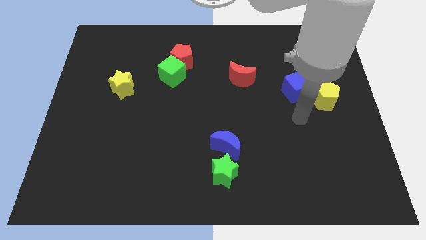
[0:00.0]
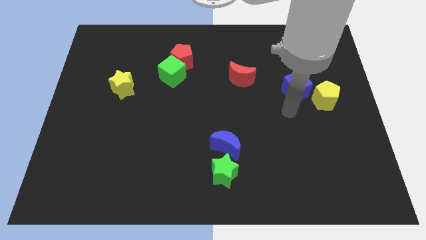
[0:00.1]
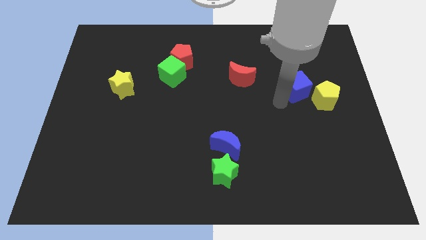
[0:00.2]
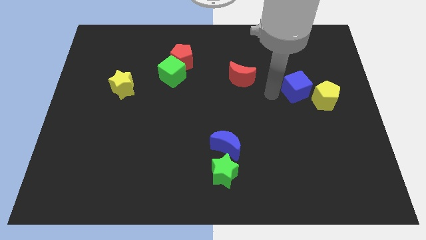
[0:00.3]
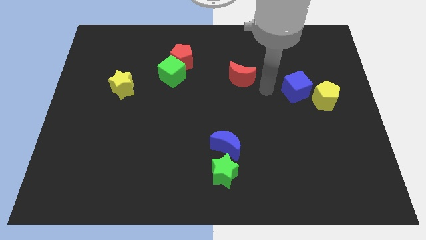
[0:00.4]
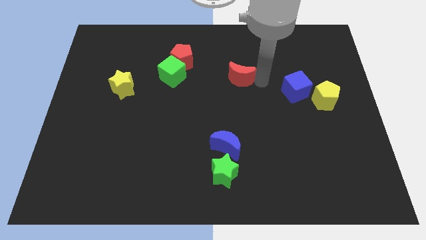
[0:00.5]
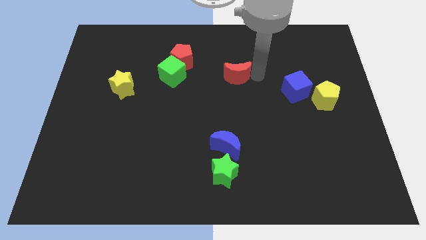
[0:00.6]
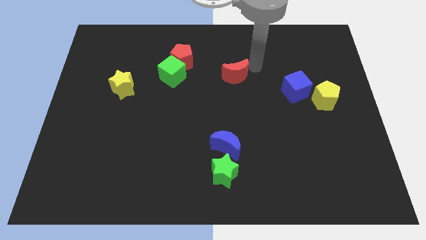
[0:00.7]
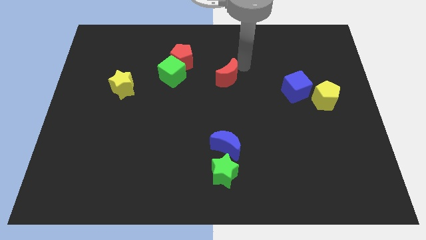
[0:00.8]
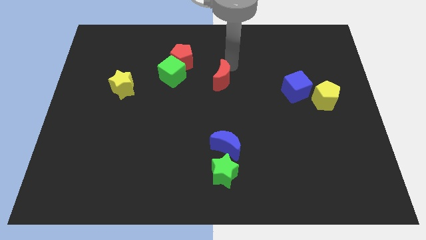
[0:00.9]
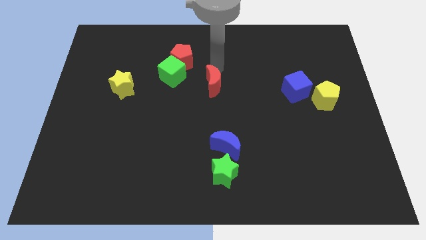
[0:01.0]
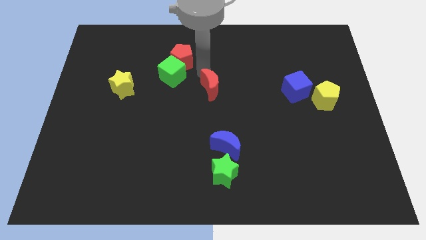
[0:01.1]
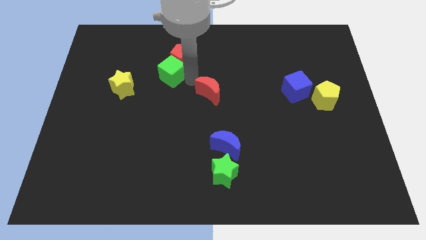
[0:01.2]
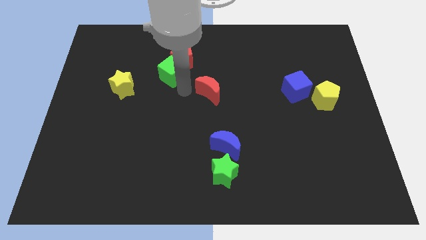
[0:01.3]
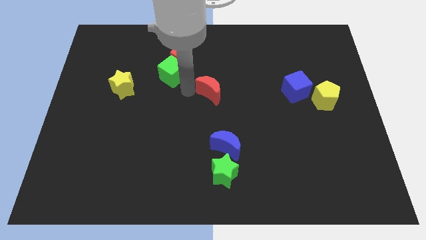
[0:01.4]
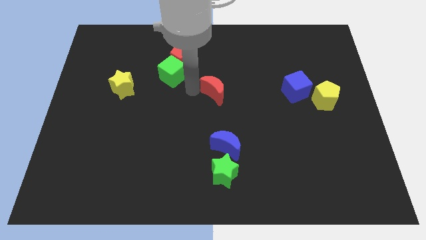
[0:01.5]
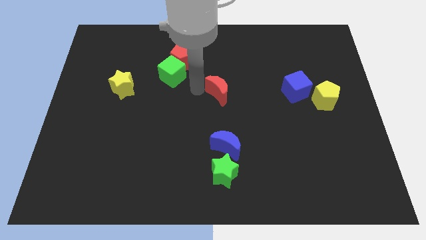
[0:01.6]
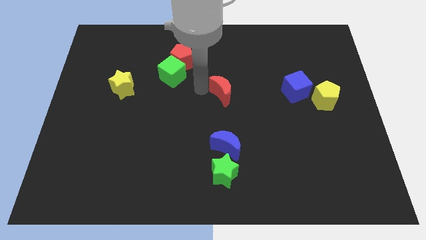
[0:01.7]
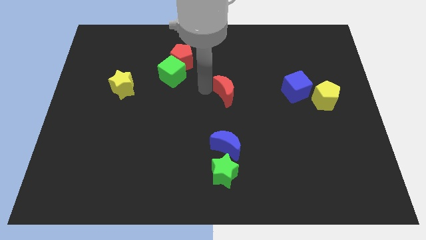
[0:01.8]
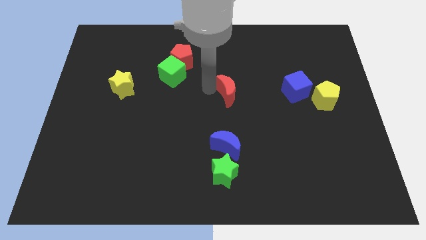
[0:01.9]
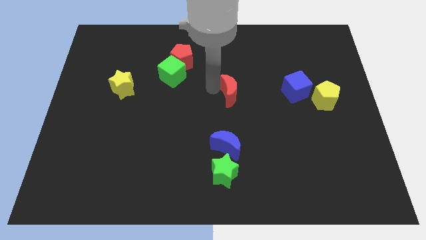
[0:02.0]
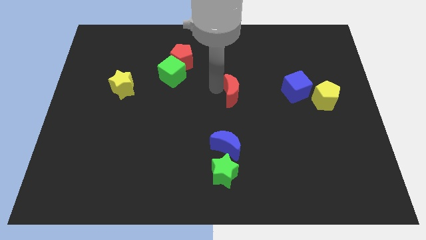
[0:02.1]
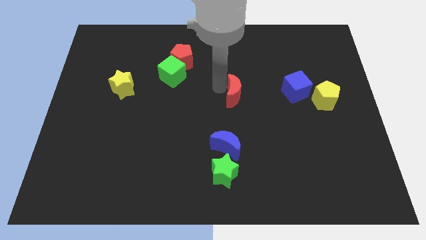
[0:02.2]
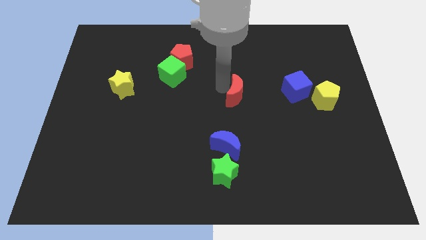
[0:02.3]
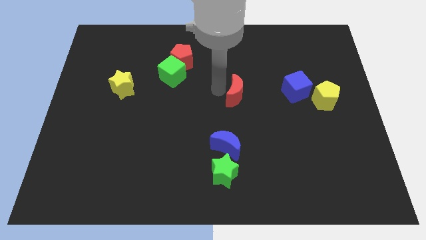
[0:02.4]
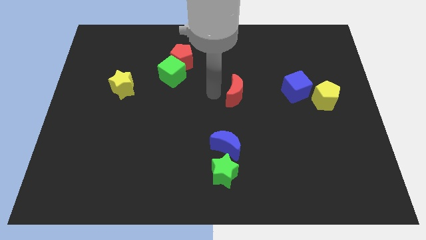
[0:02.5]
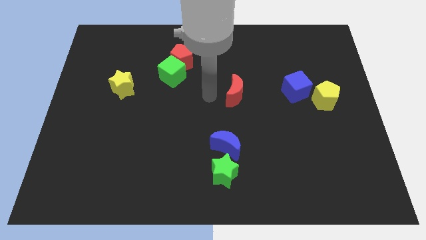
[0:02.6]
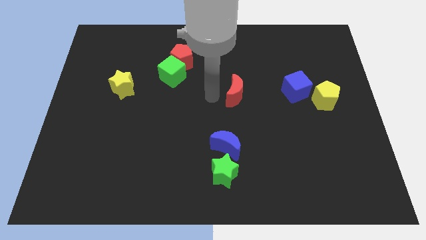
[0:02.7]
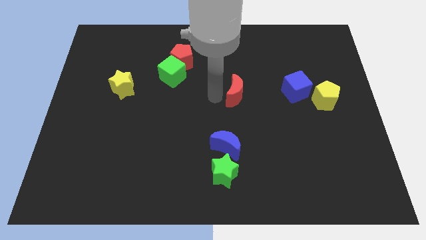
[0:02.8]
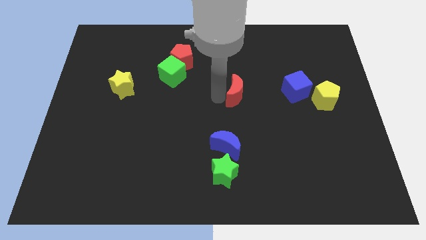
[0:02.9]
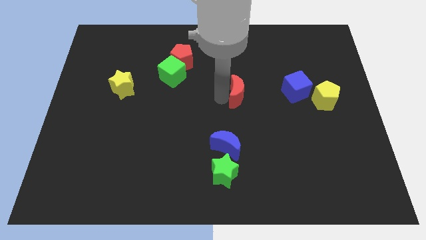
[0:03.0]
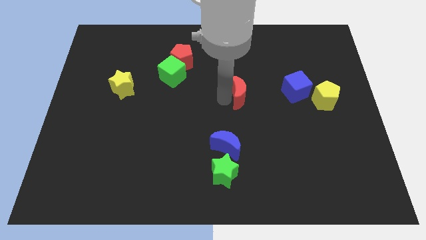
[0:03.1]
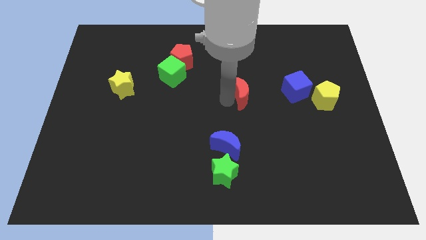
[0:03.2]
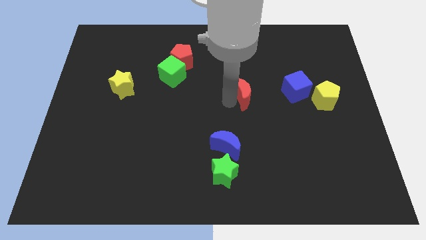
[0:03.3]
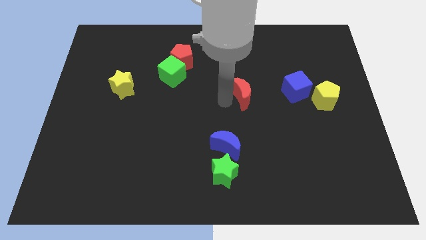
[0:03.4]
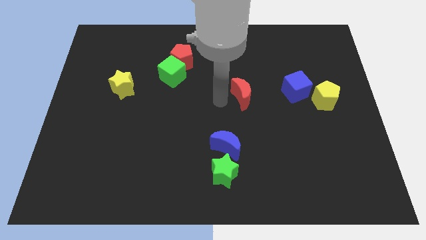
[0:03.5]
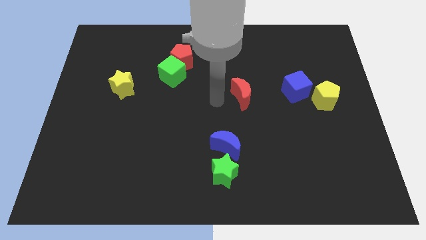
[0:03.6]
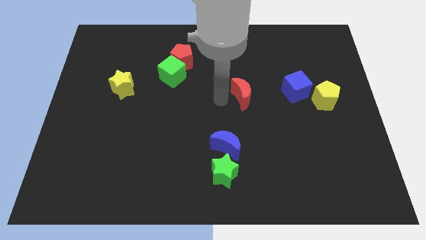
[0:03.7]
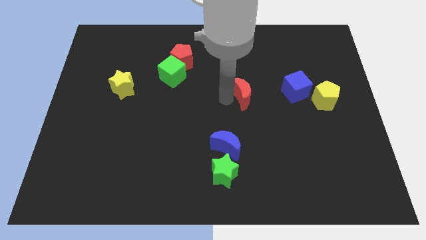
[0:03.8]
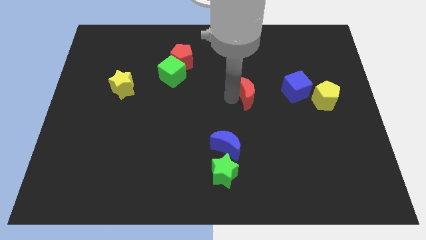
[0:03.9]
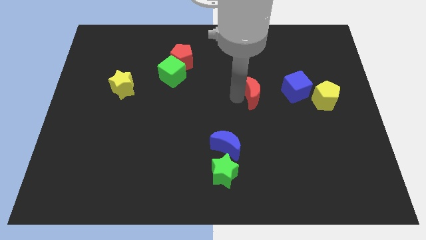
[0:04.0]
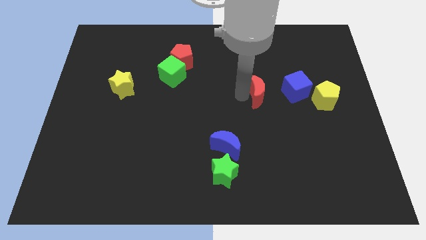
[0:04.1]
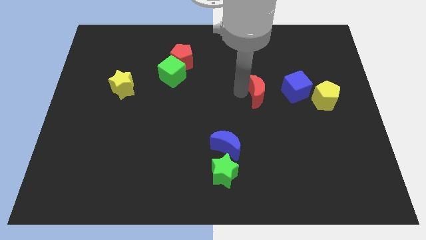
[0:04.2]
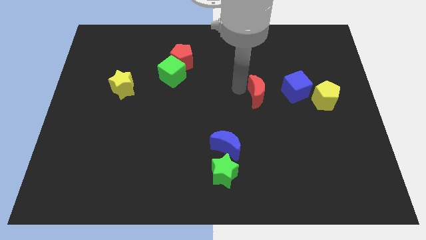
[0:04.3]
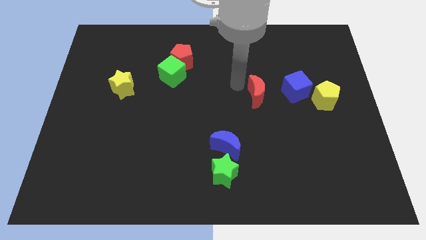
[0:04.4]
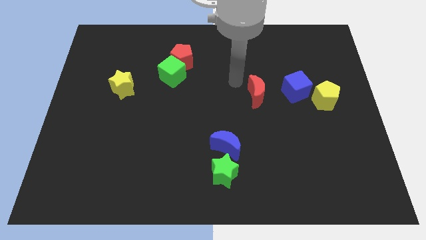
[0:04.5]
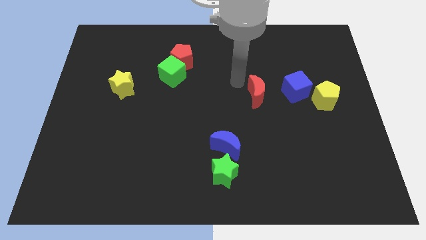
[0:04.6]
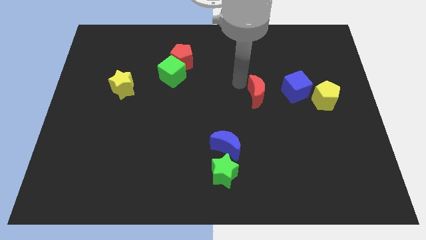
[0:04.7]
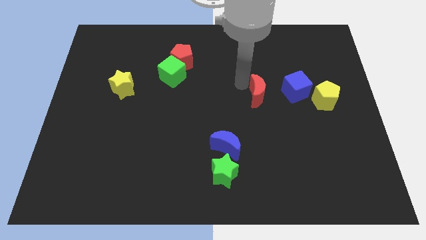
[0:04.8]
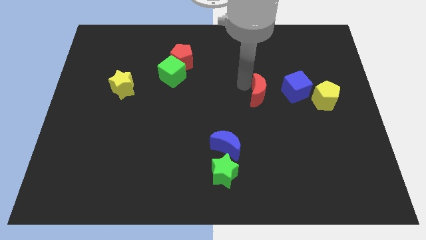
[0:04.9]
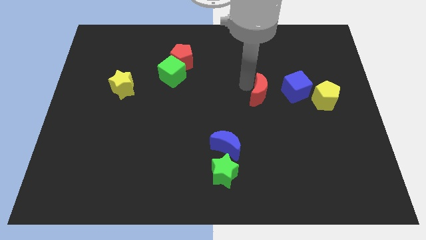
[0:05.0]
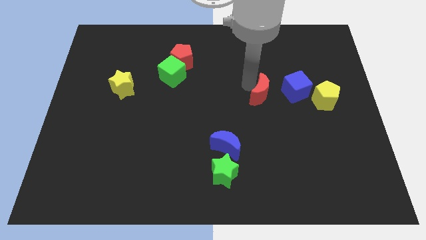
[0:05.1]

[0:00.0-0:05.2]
move the red moon a little down and then to the right

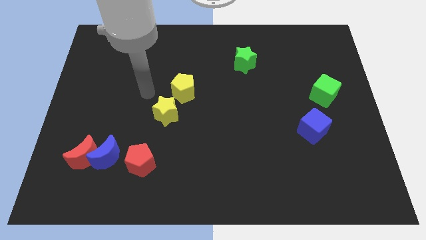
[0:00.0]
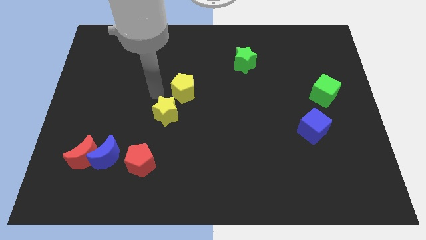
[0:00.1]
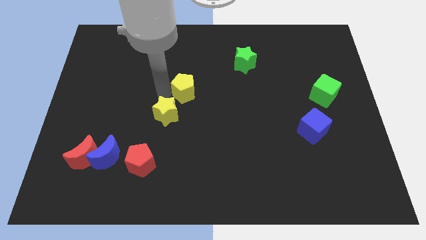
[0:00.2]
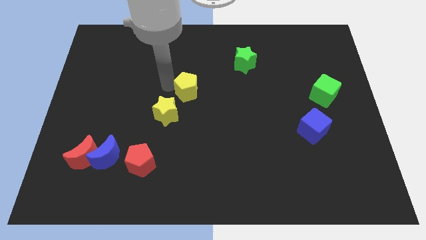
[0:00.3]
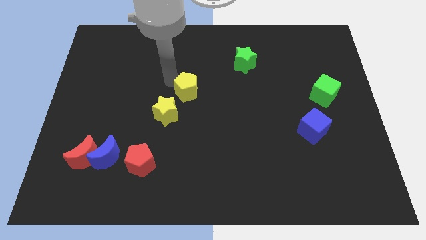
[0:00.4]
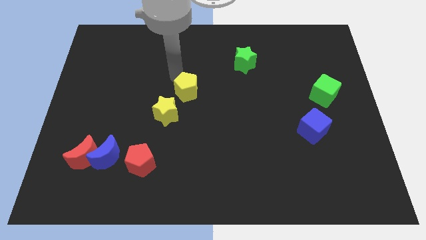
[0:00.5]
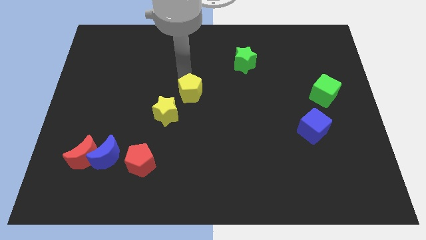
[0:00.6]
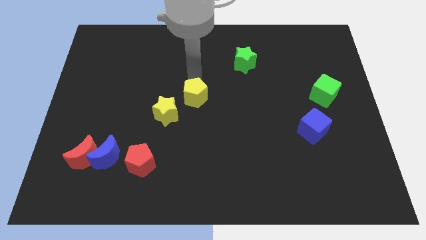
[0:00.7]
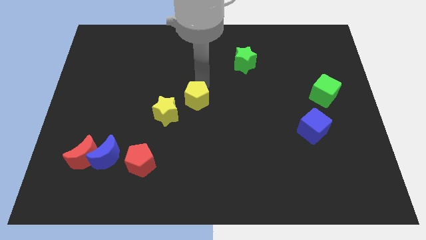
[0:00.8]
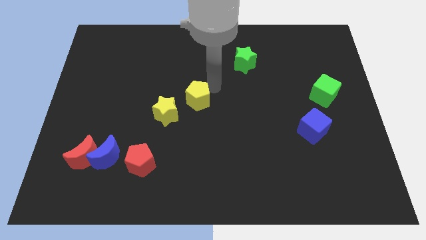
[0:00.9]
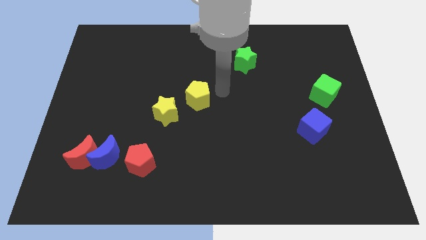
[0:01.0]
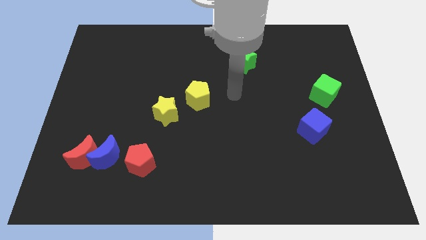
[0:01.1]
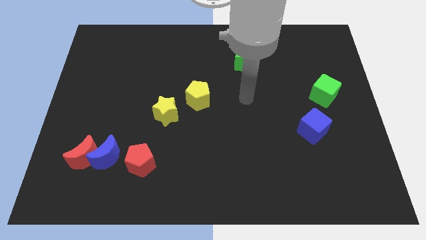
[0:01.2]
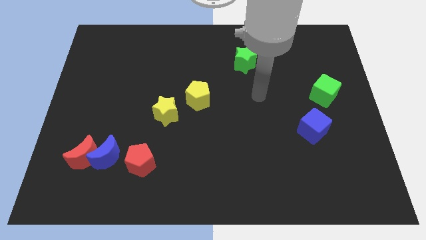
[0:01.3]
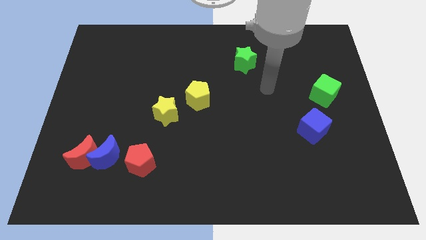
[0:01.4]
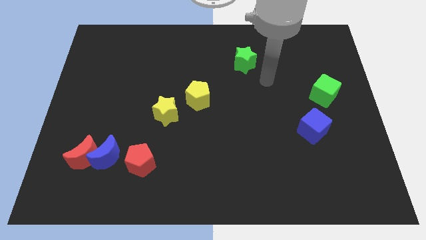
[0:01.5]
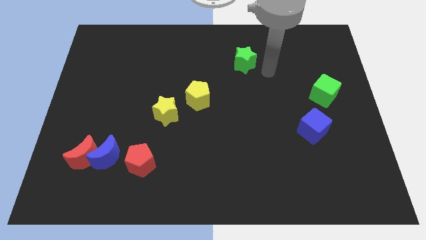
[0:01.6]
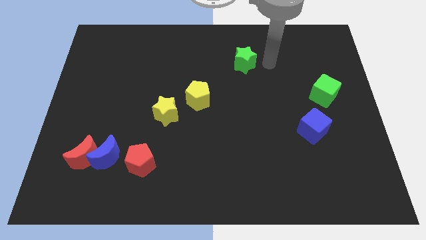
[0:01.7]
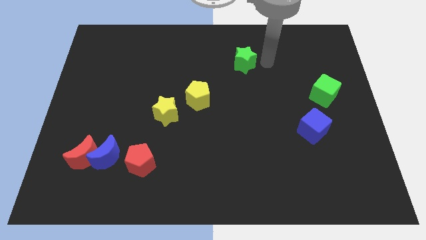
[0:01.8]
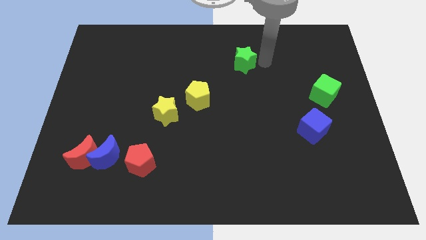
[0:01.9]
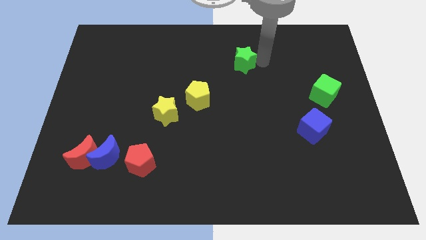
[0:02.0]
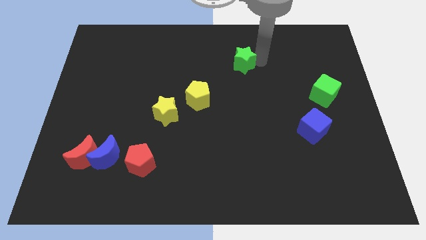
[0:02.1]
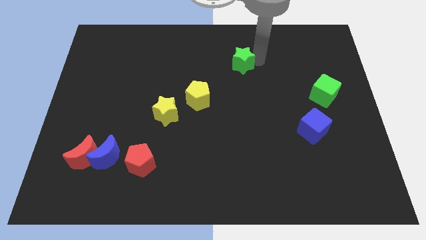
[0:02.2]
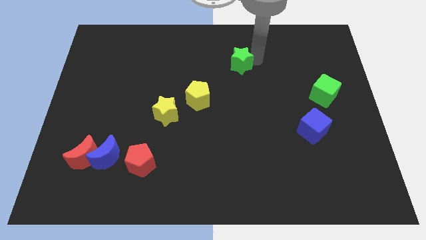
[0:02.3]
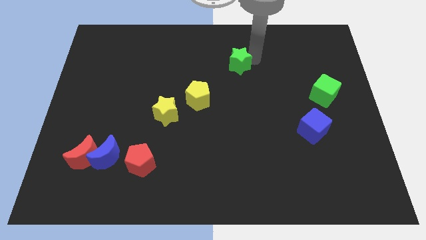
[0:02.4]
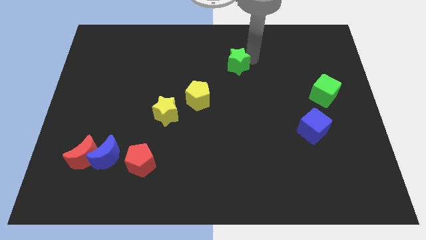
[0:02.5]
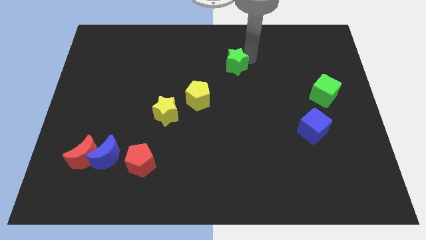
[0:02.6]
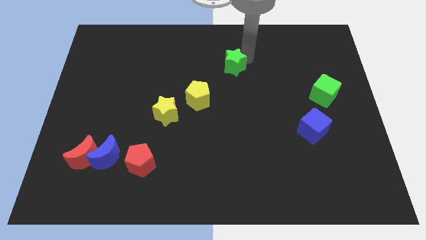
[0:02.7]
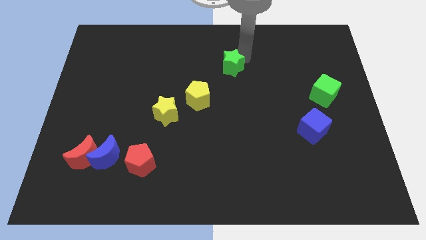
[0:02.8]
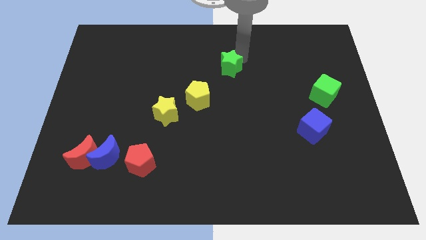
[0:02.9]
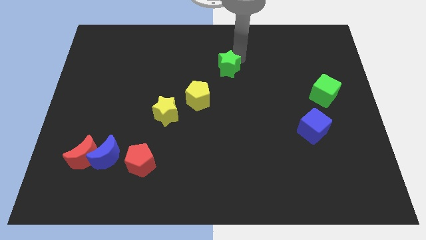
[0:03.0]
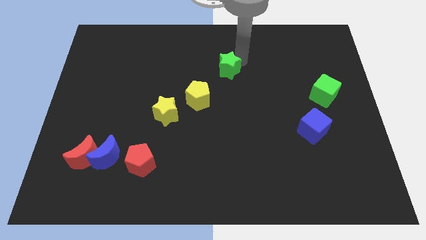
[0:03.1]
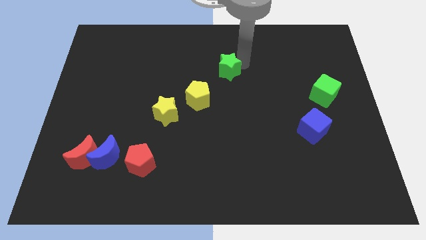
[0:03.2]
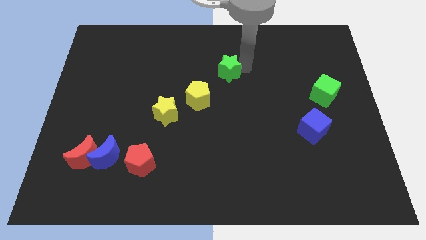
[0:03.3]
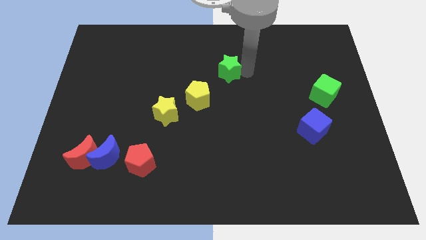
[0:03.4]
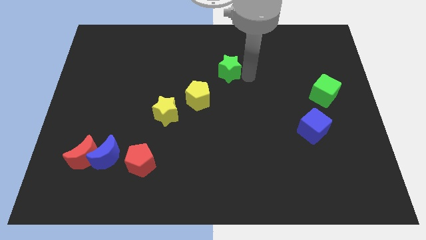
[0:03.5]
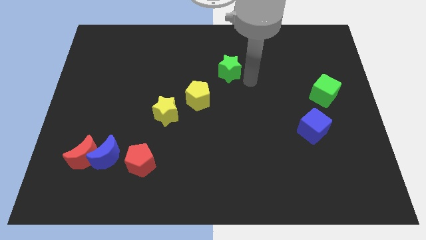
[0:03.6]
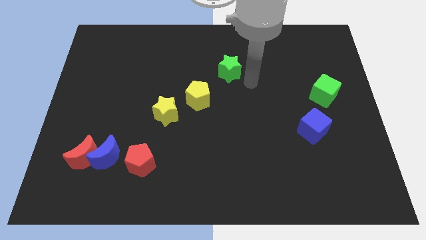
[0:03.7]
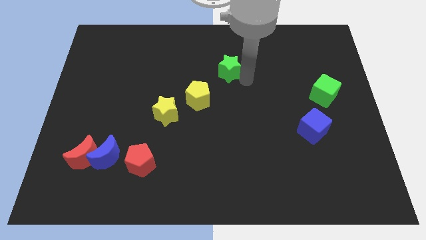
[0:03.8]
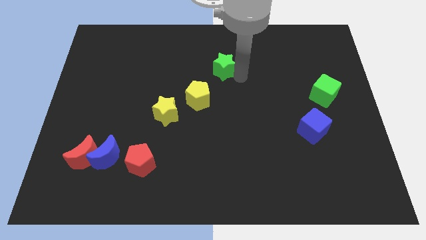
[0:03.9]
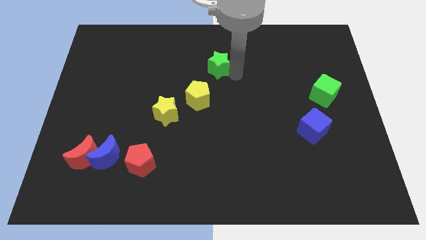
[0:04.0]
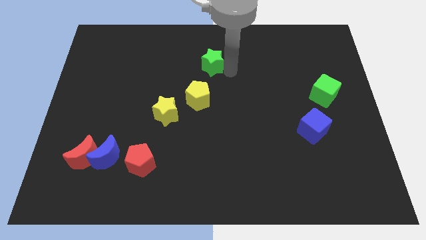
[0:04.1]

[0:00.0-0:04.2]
slightly move the green star to the left
